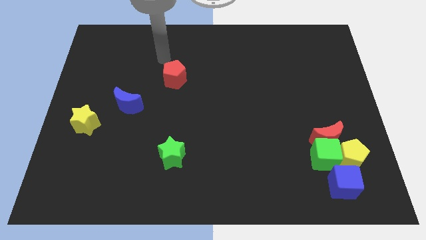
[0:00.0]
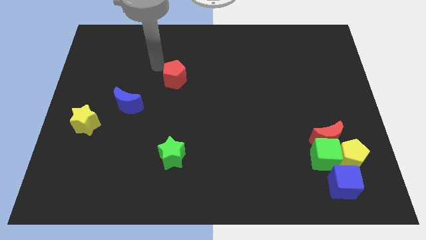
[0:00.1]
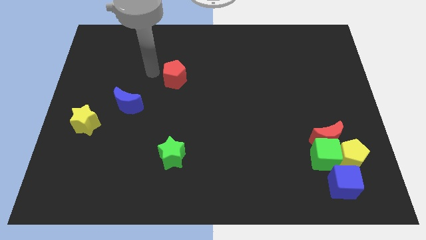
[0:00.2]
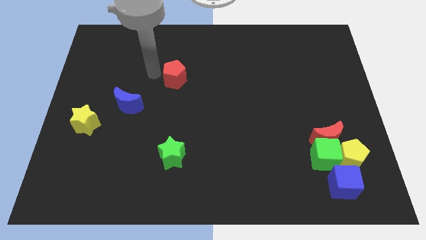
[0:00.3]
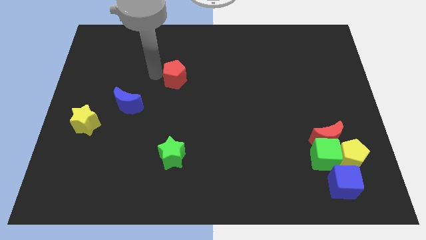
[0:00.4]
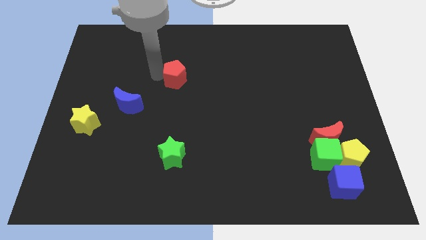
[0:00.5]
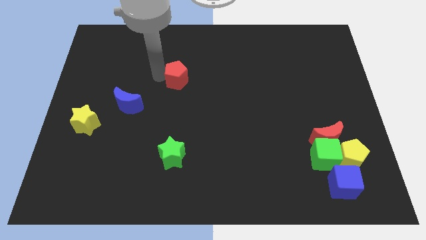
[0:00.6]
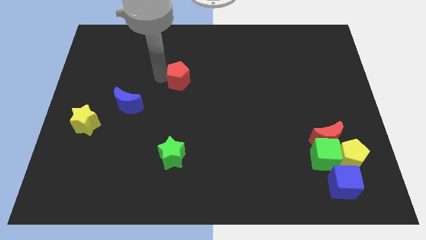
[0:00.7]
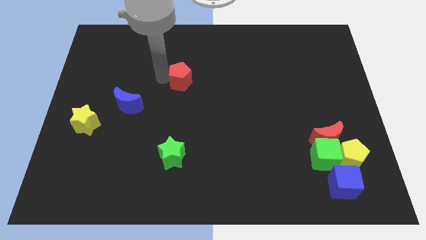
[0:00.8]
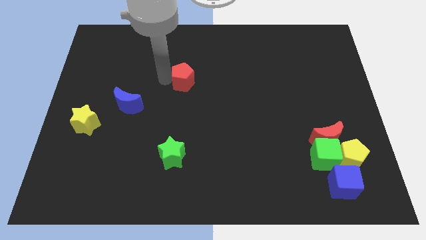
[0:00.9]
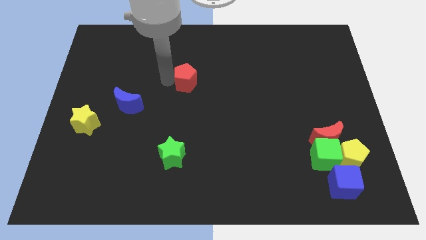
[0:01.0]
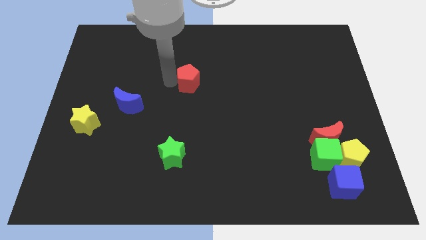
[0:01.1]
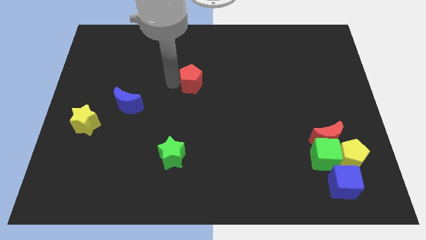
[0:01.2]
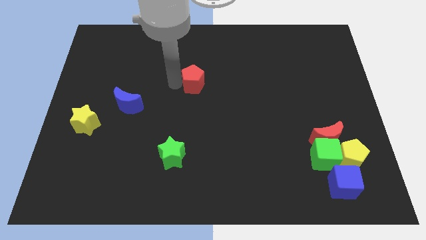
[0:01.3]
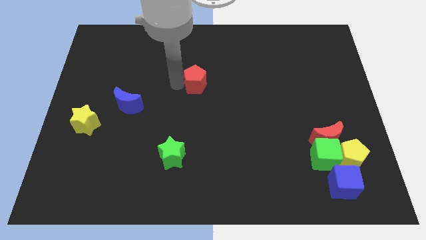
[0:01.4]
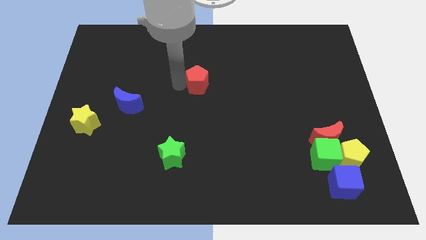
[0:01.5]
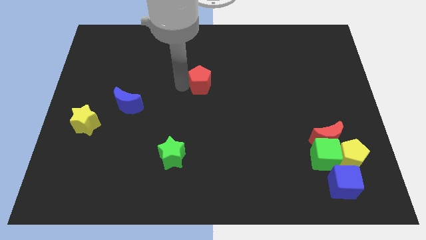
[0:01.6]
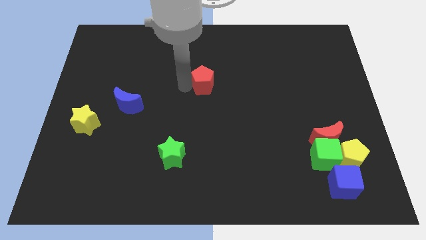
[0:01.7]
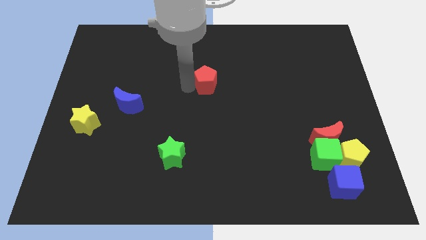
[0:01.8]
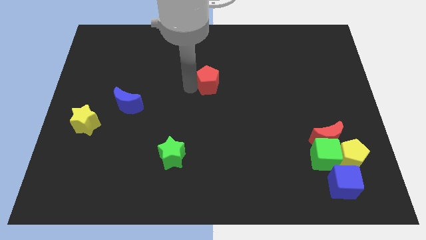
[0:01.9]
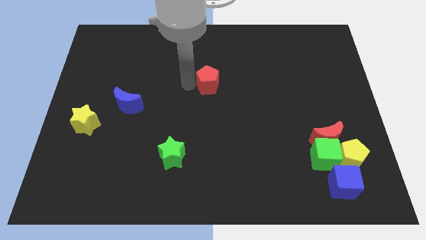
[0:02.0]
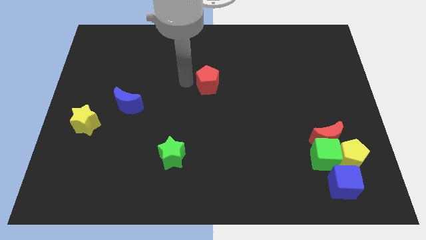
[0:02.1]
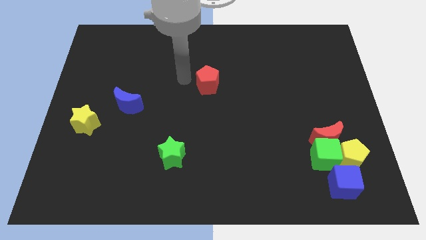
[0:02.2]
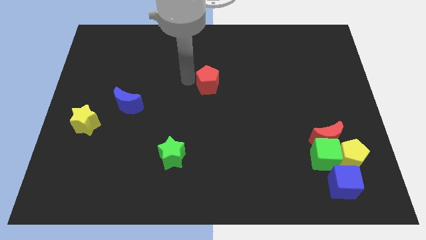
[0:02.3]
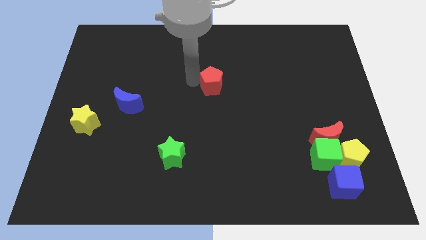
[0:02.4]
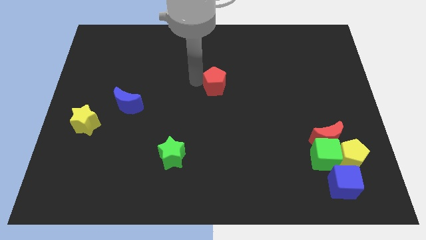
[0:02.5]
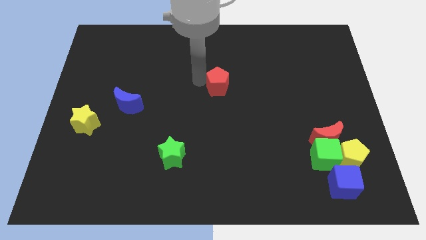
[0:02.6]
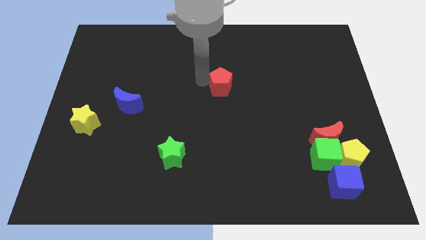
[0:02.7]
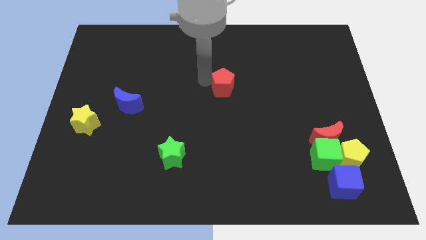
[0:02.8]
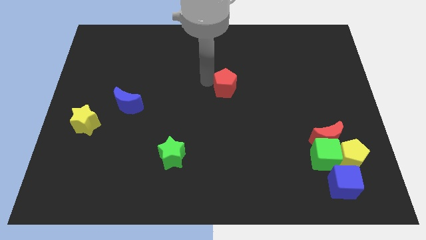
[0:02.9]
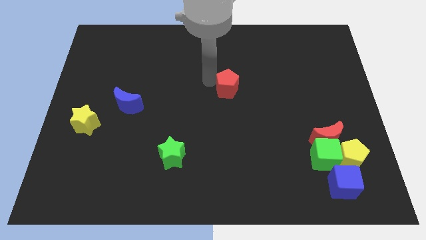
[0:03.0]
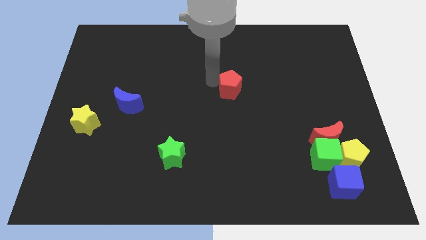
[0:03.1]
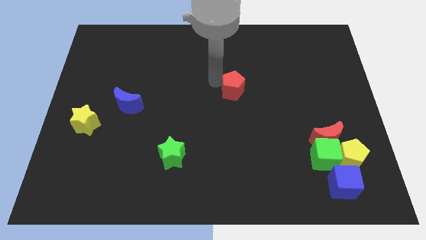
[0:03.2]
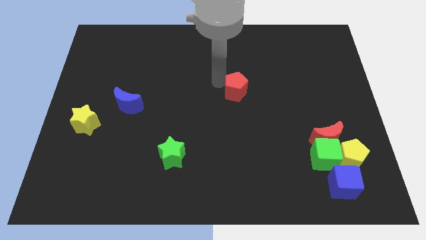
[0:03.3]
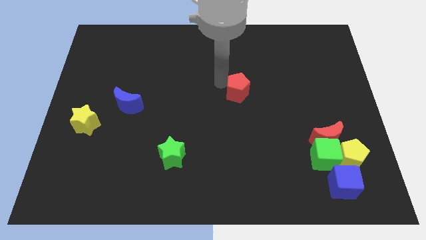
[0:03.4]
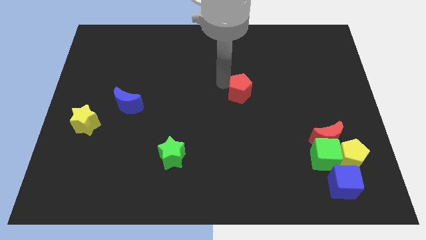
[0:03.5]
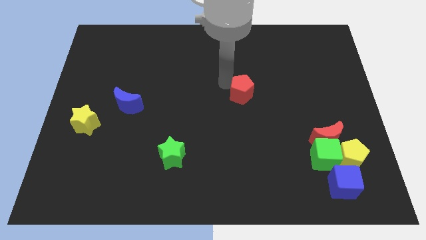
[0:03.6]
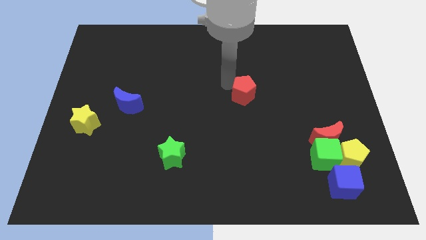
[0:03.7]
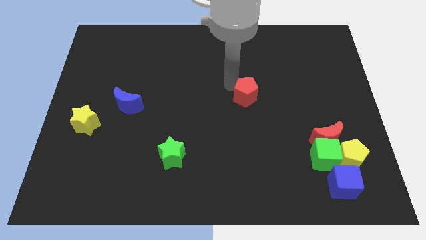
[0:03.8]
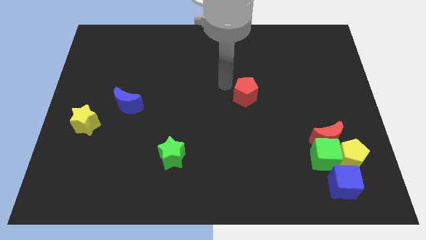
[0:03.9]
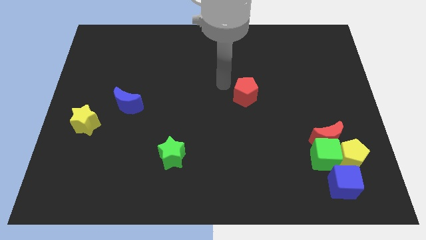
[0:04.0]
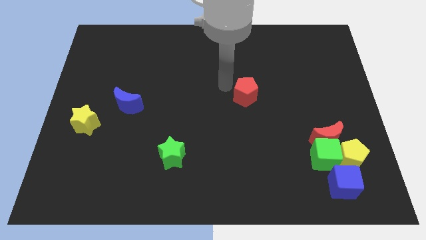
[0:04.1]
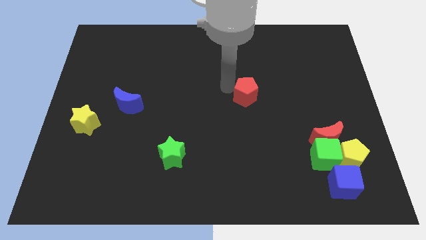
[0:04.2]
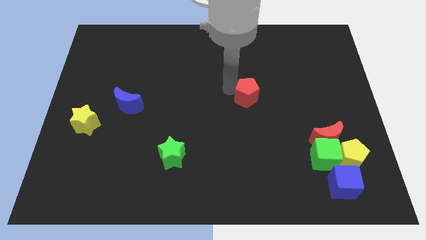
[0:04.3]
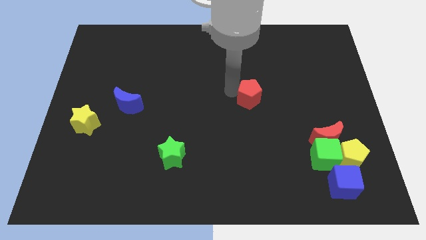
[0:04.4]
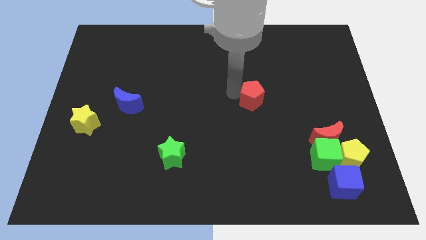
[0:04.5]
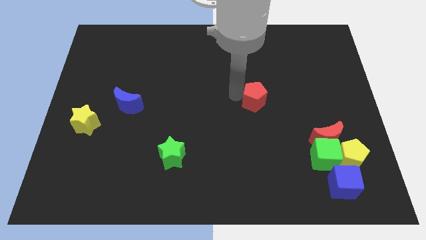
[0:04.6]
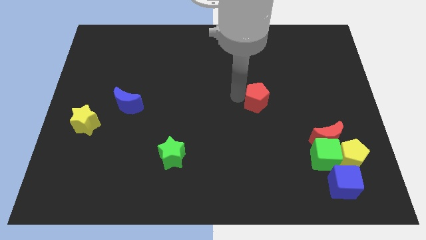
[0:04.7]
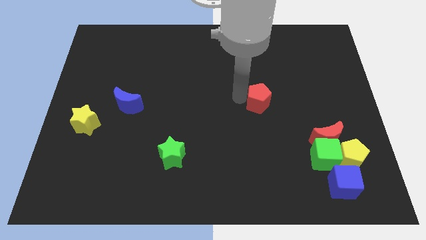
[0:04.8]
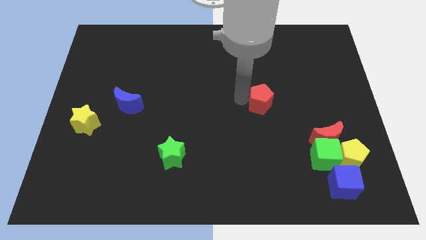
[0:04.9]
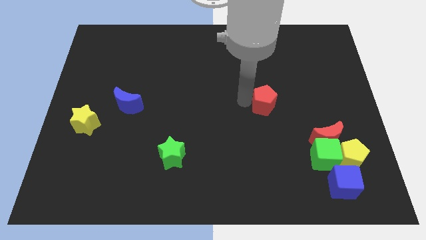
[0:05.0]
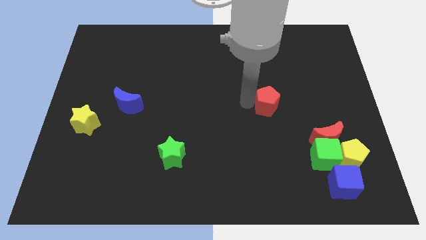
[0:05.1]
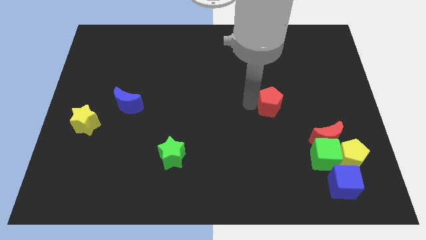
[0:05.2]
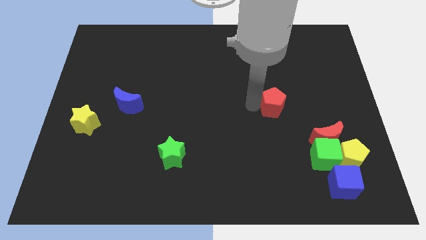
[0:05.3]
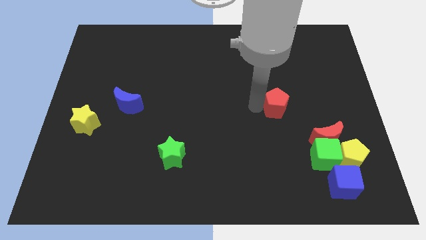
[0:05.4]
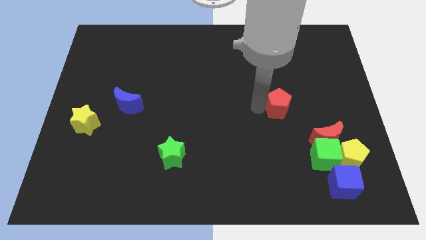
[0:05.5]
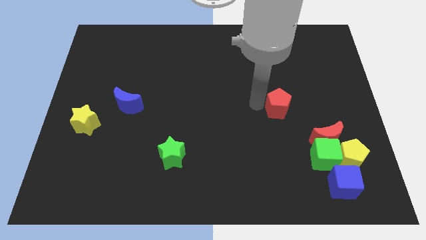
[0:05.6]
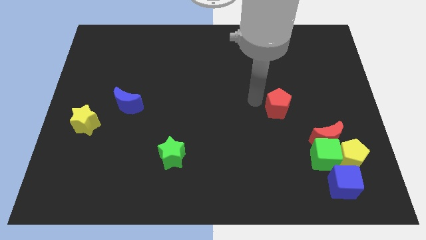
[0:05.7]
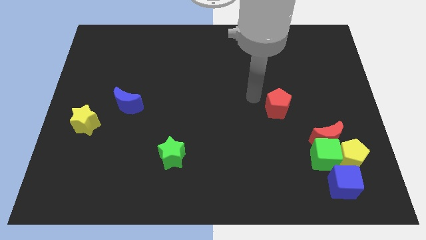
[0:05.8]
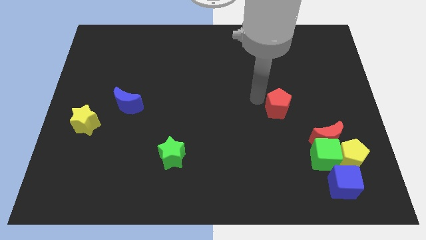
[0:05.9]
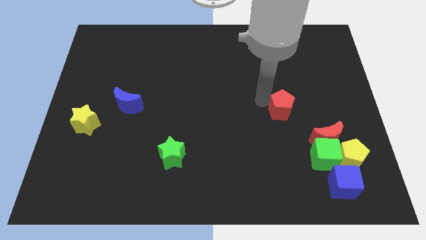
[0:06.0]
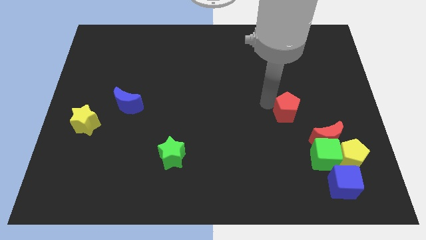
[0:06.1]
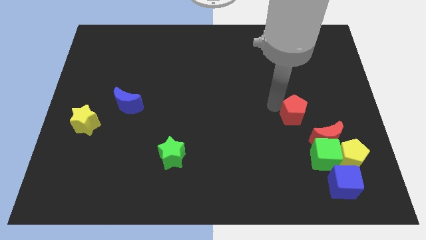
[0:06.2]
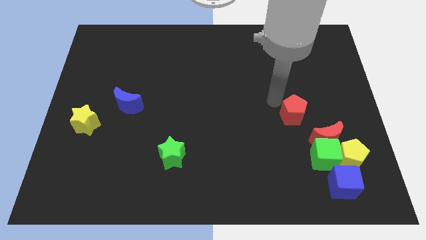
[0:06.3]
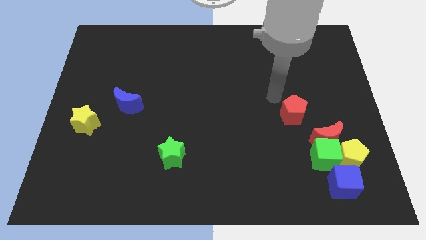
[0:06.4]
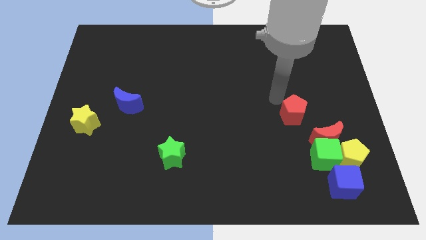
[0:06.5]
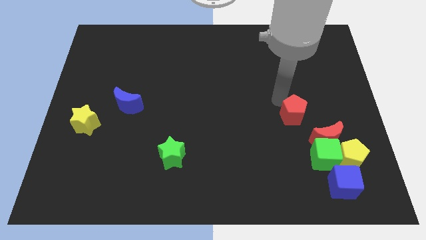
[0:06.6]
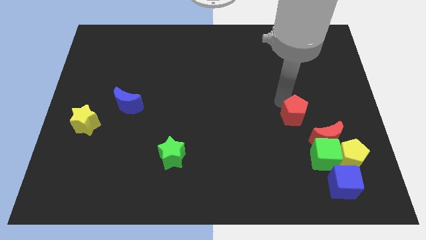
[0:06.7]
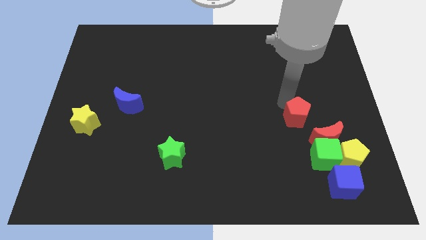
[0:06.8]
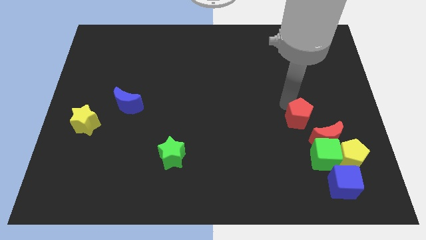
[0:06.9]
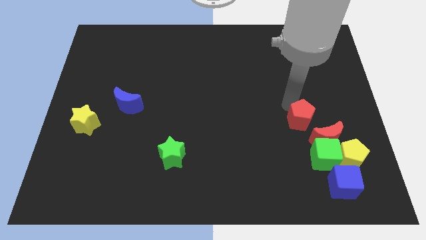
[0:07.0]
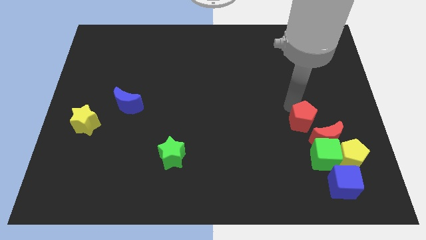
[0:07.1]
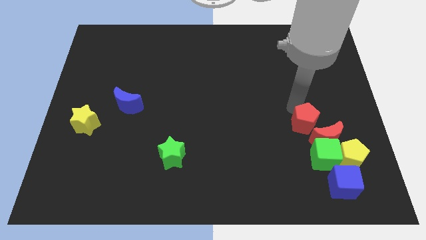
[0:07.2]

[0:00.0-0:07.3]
push the red pentagon close to the red moon
